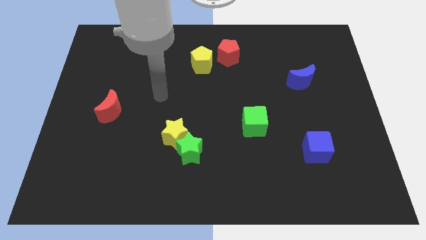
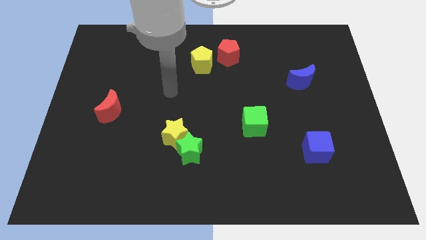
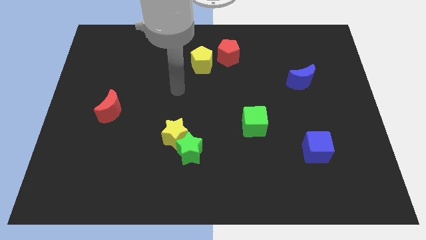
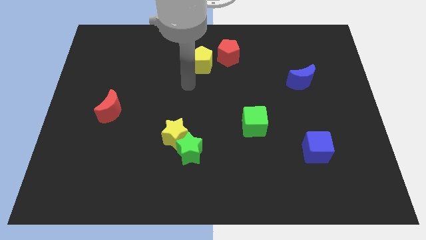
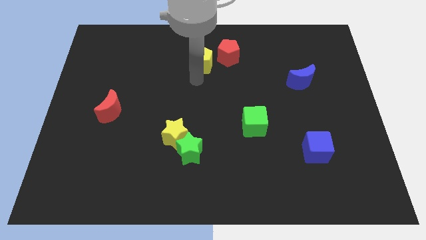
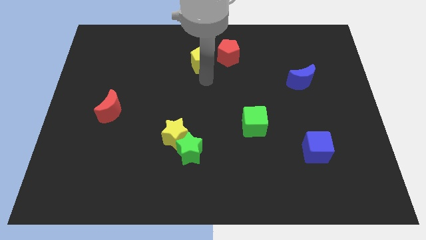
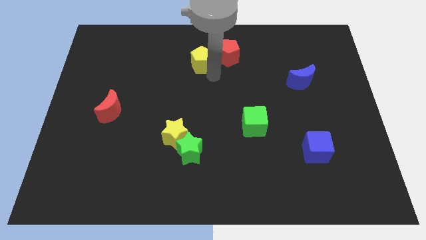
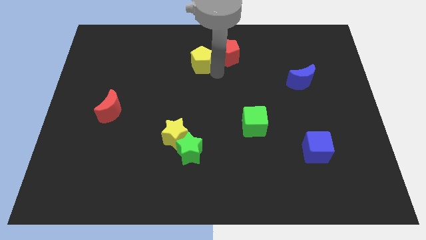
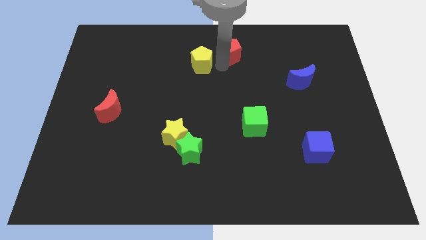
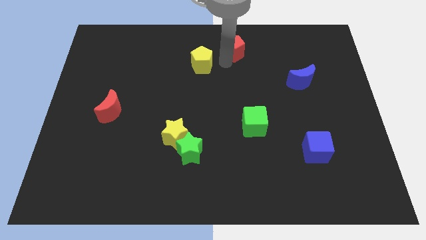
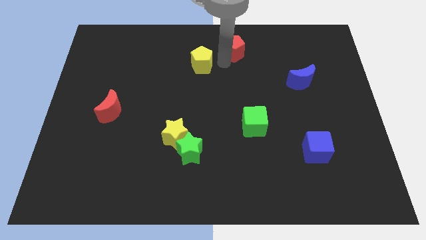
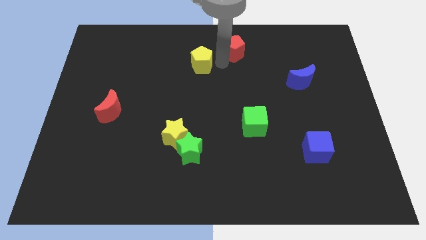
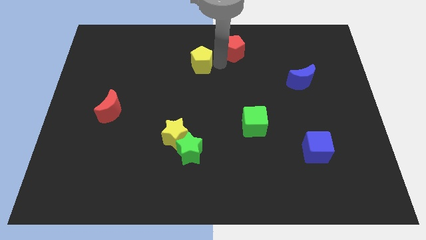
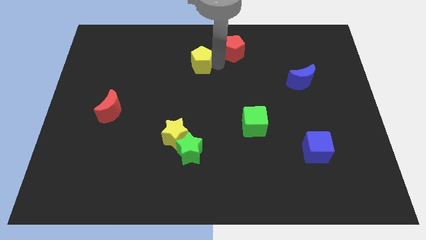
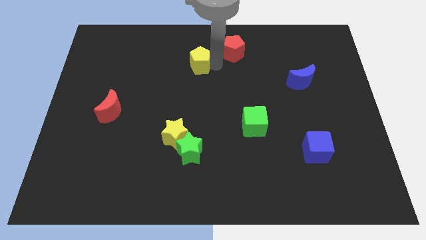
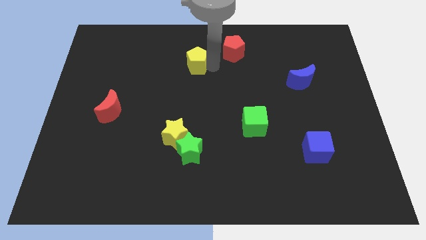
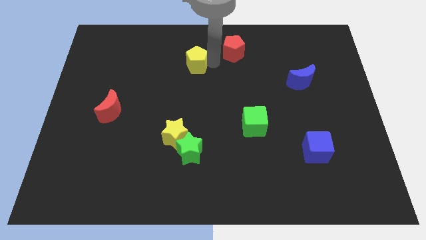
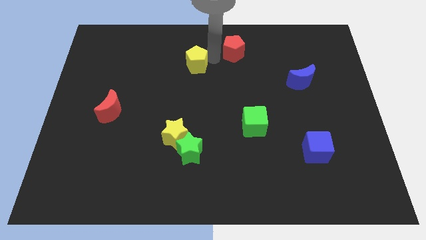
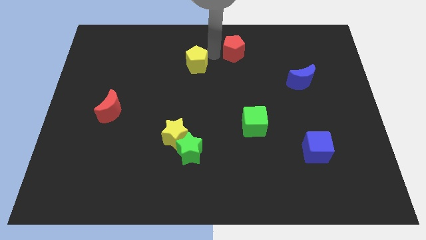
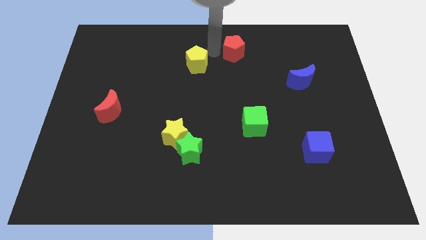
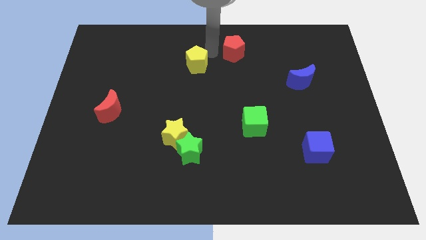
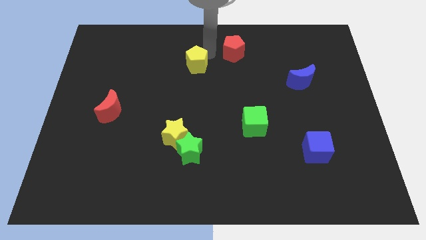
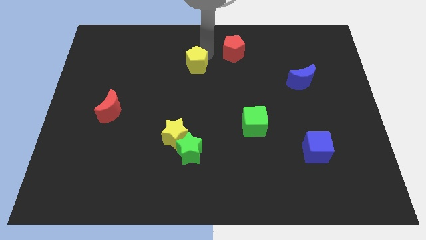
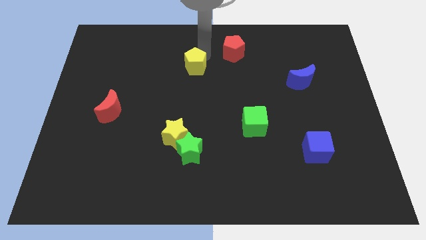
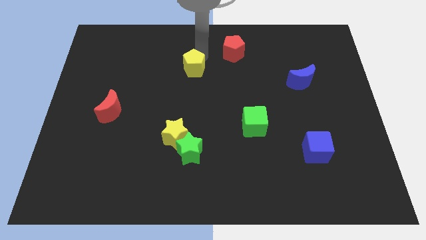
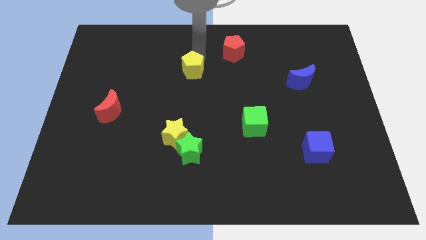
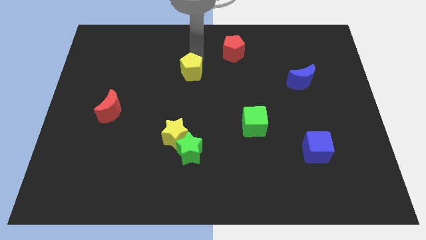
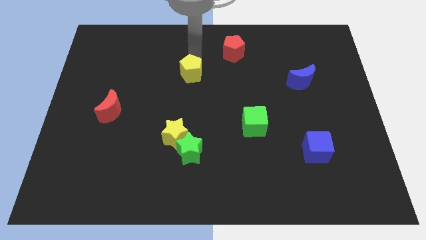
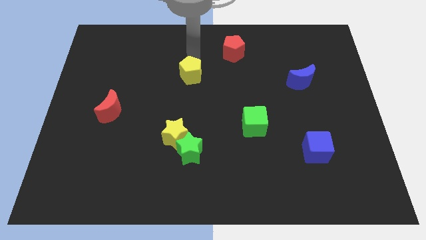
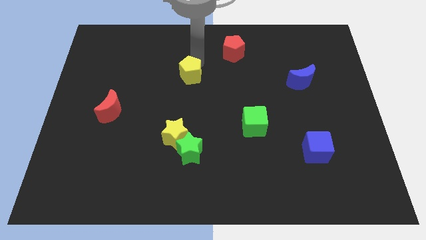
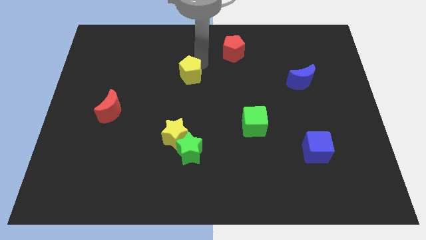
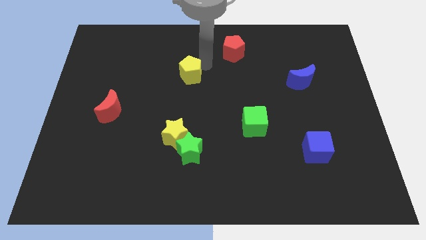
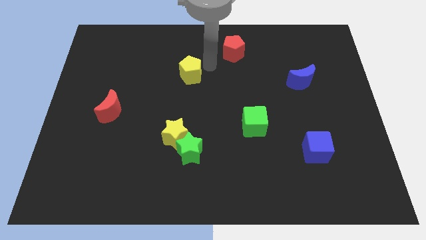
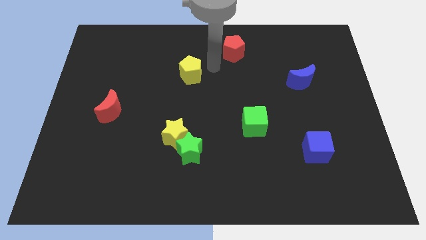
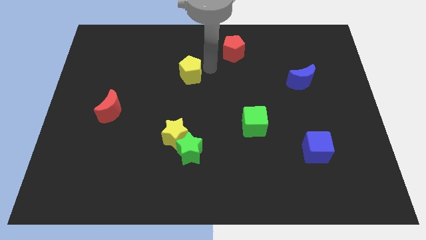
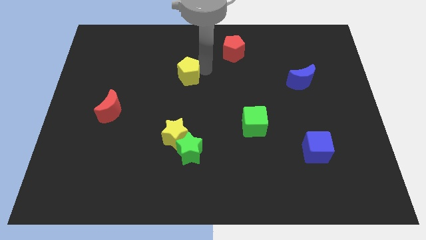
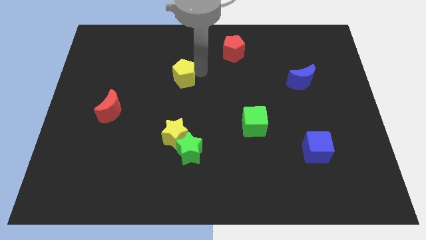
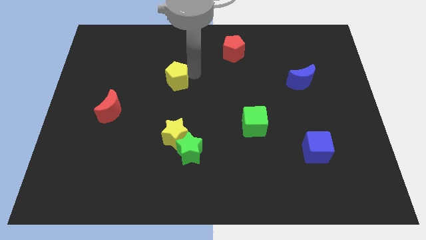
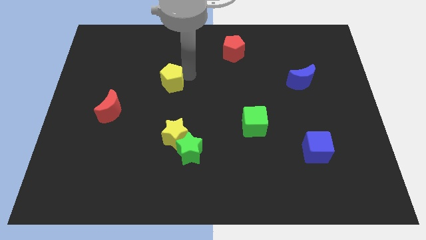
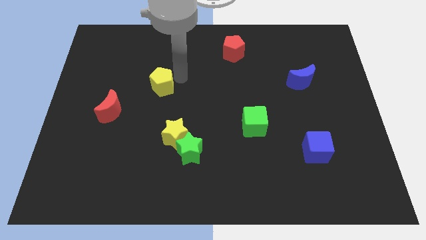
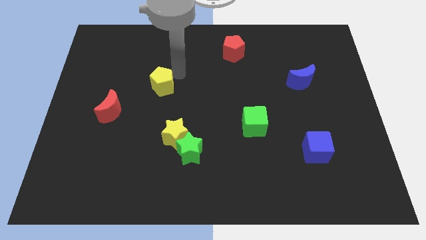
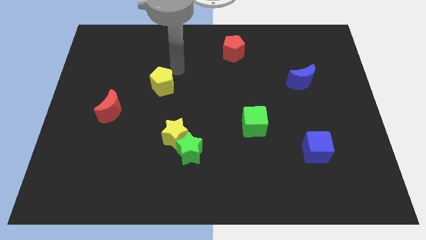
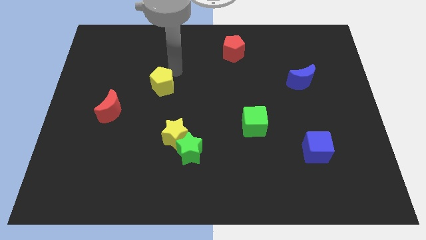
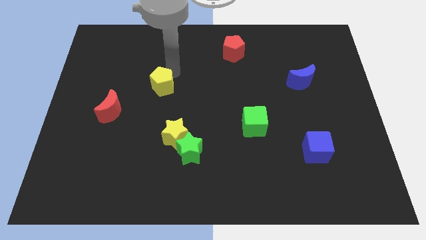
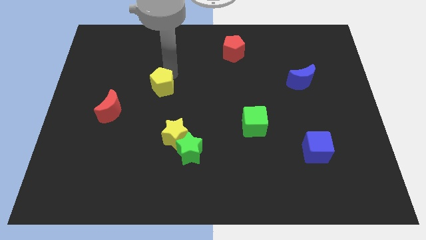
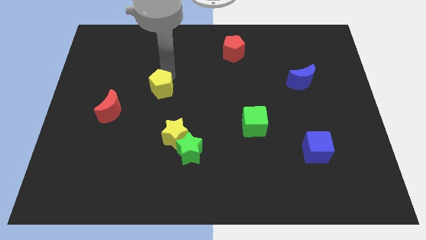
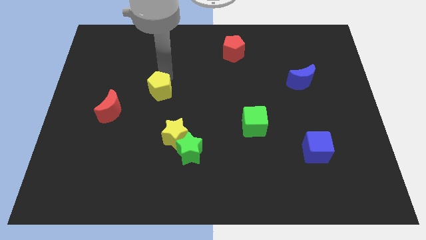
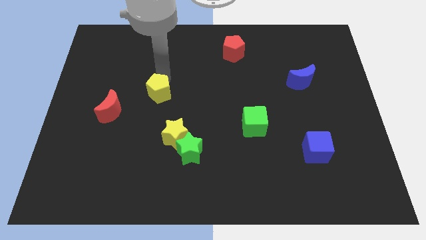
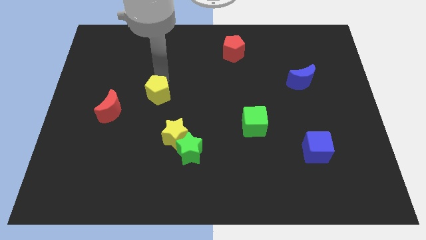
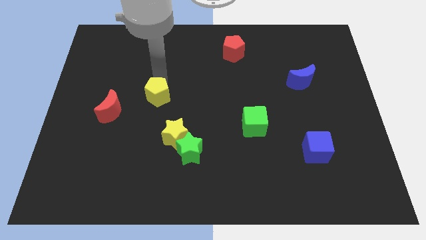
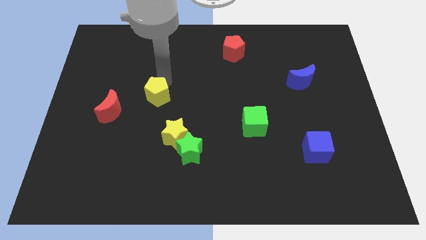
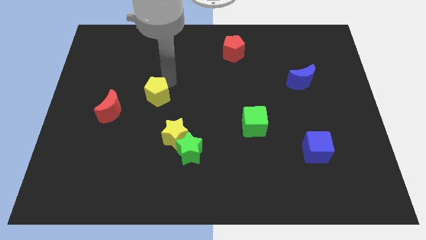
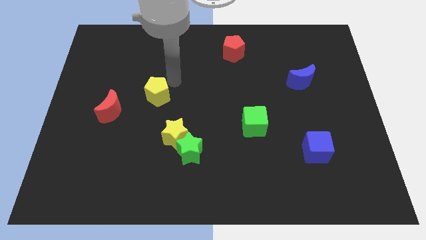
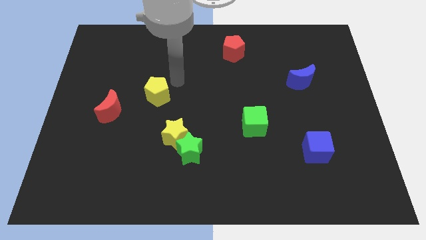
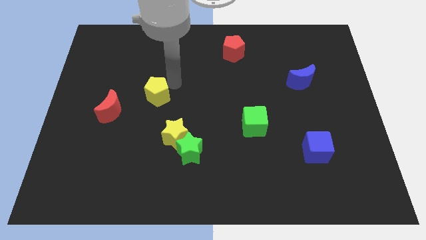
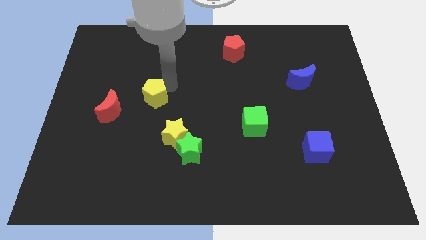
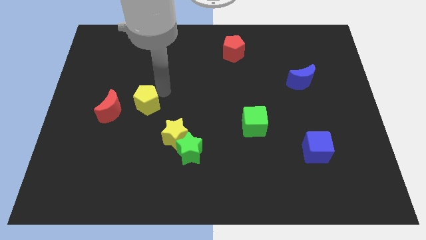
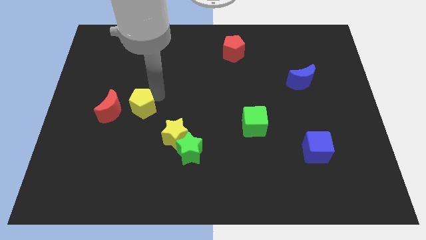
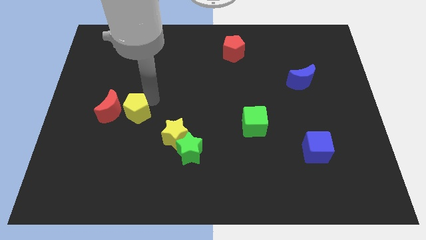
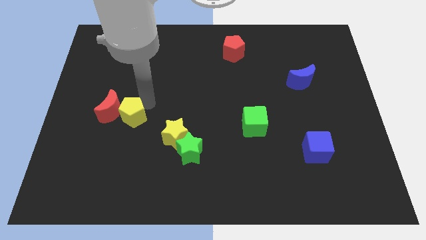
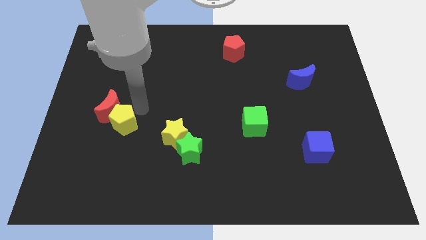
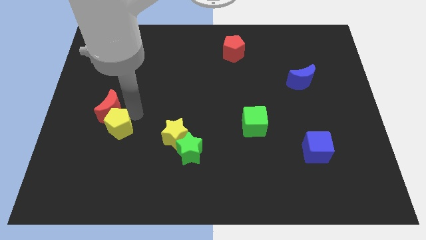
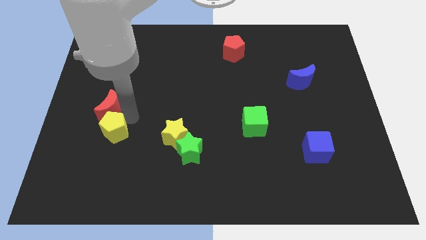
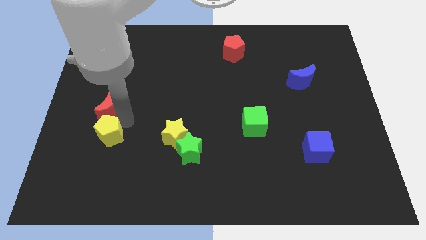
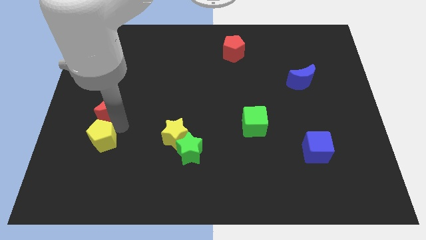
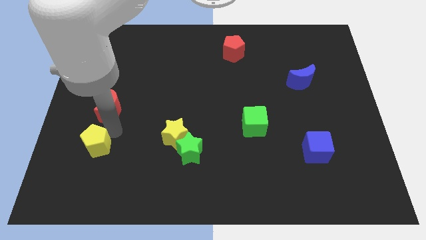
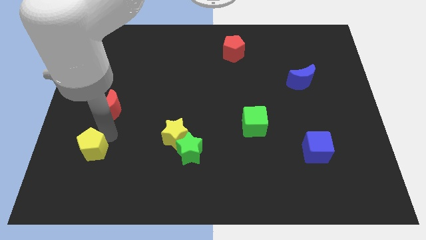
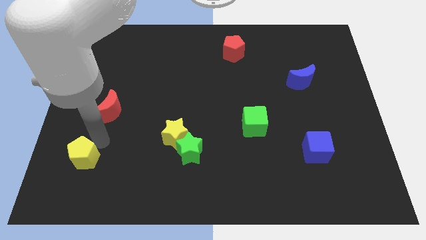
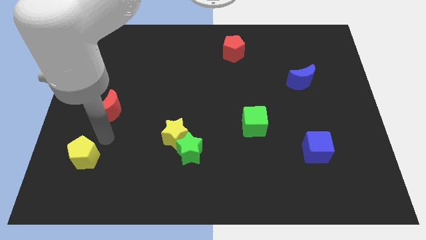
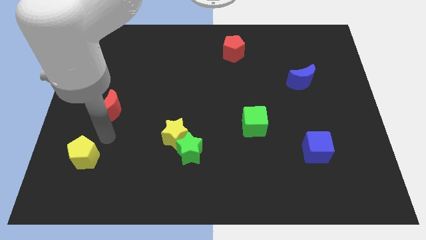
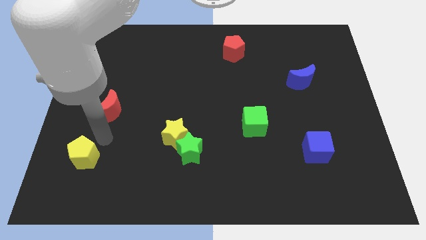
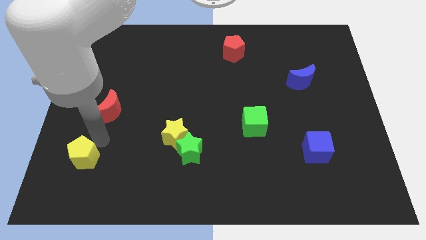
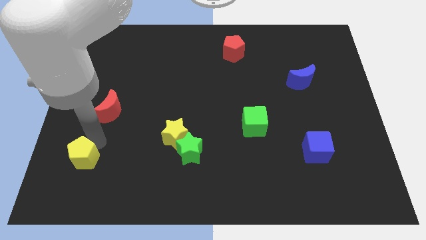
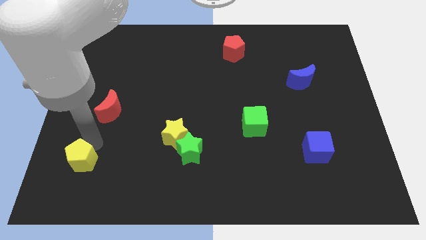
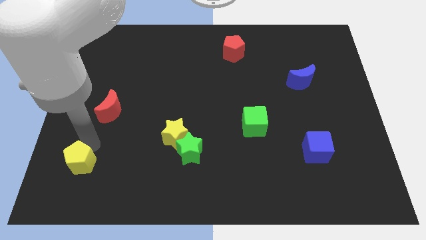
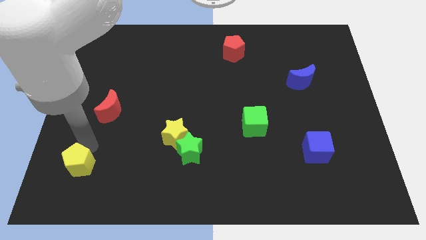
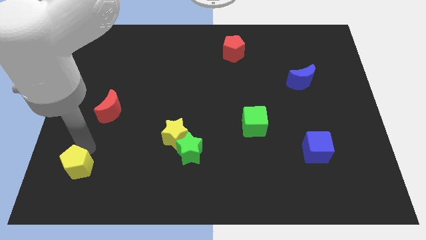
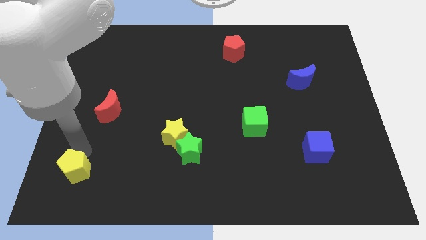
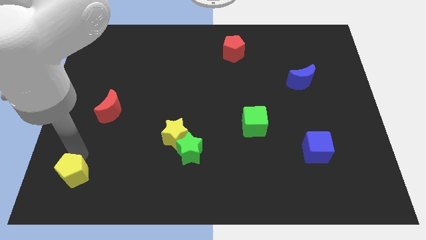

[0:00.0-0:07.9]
move the yellow pentagon to the bottom left of the board
